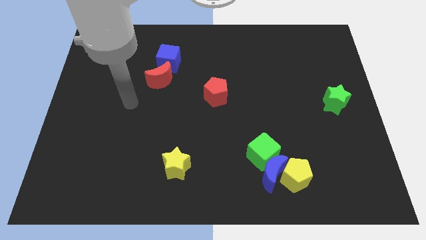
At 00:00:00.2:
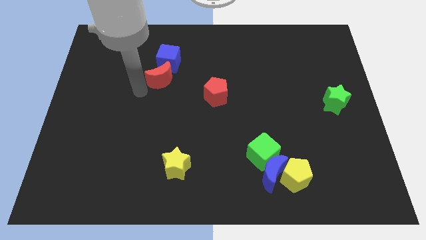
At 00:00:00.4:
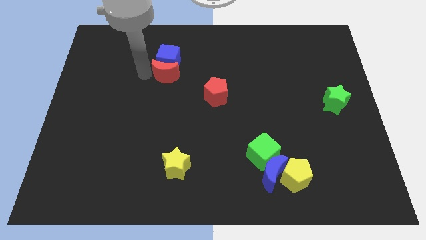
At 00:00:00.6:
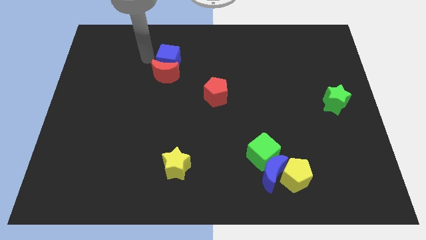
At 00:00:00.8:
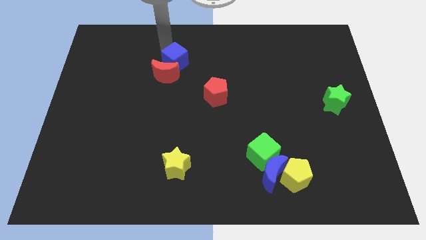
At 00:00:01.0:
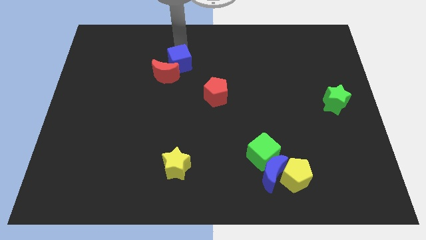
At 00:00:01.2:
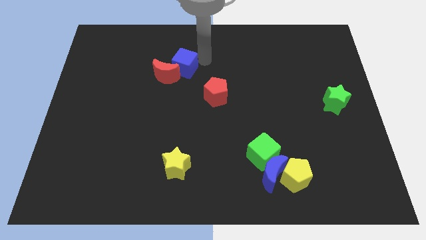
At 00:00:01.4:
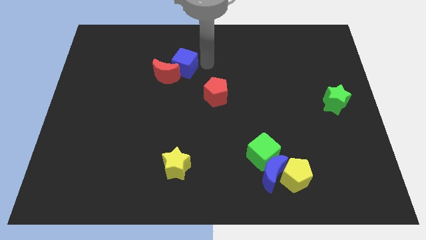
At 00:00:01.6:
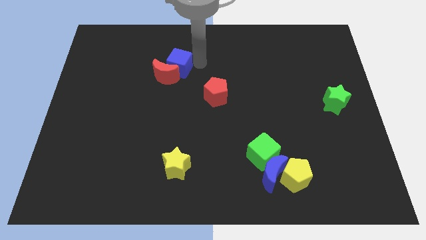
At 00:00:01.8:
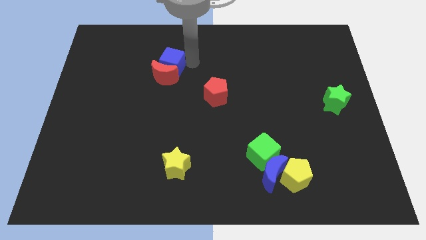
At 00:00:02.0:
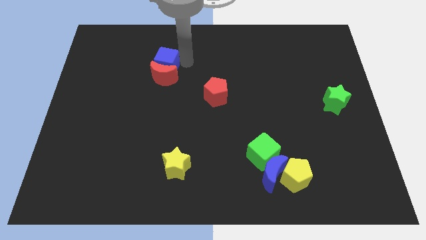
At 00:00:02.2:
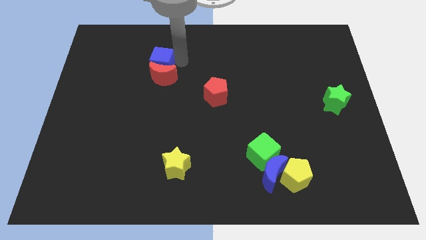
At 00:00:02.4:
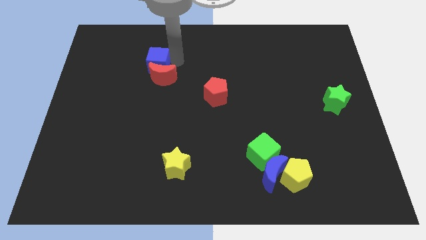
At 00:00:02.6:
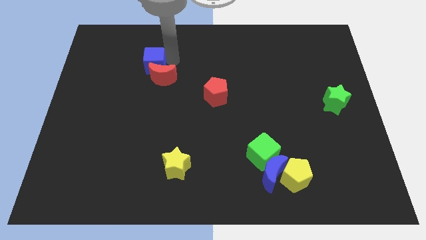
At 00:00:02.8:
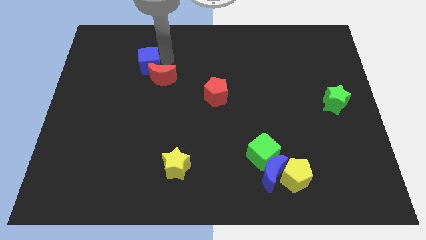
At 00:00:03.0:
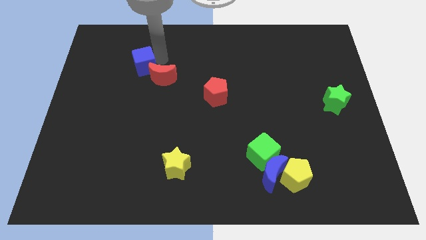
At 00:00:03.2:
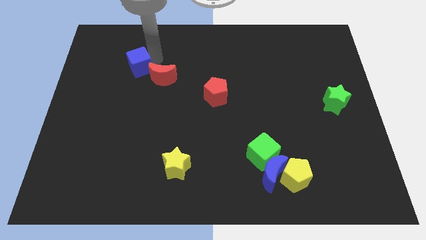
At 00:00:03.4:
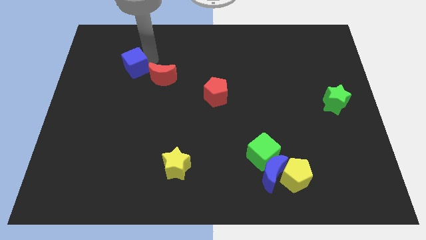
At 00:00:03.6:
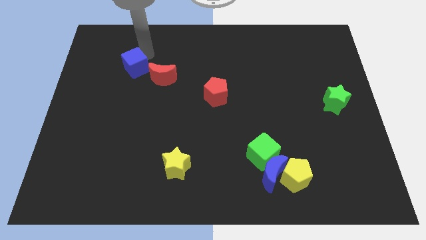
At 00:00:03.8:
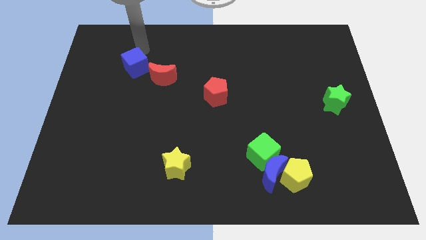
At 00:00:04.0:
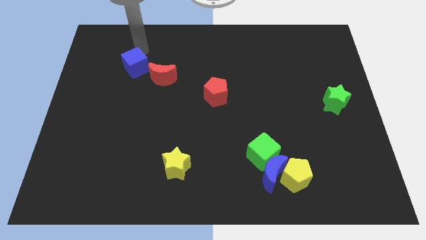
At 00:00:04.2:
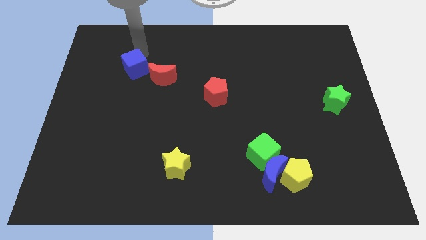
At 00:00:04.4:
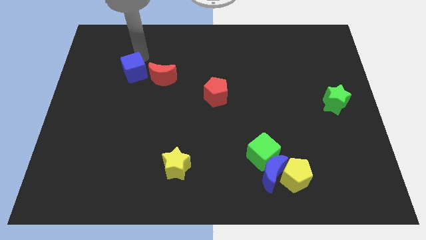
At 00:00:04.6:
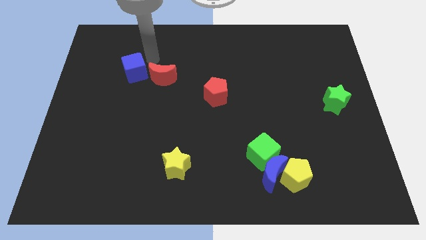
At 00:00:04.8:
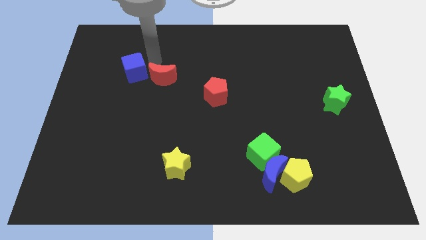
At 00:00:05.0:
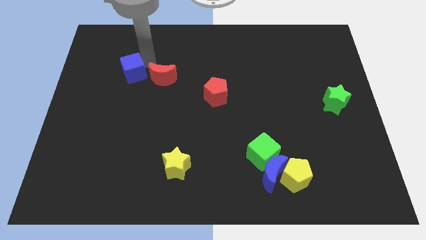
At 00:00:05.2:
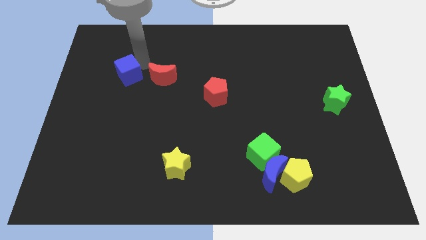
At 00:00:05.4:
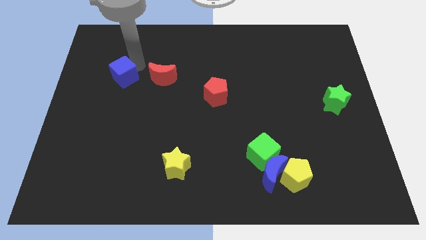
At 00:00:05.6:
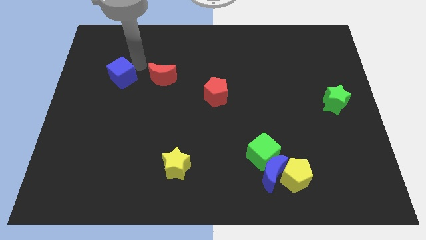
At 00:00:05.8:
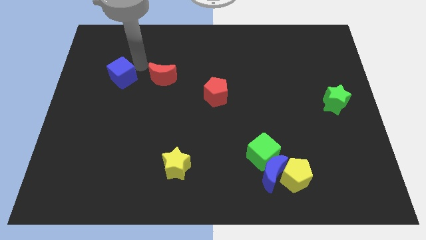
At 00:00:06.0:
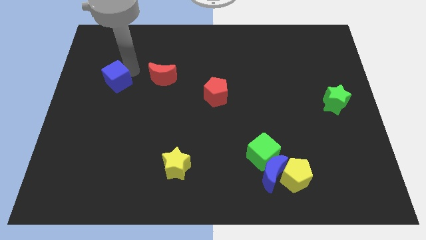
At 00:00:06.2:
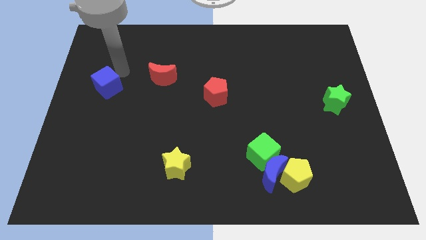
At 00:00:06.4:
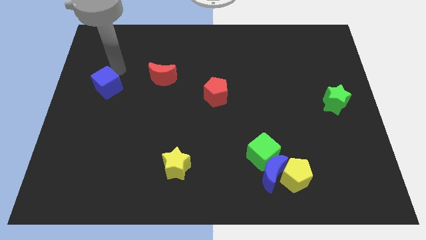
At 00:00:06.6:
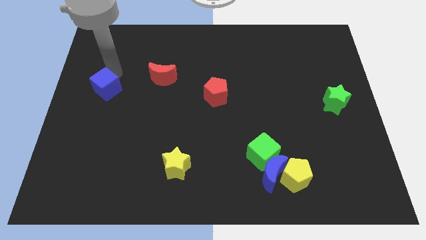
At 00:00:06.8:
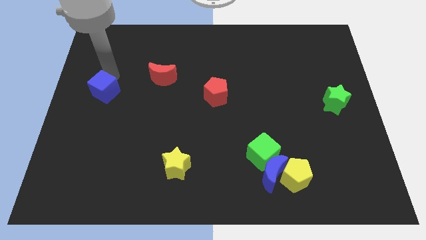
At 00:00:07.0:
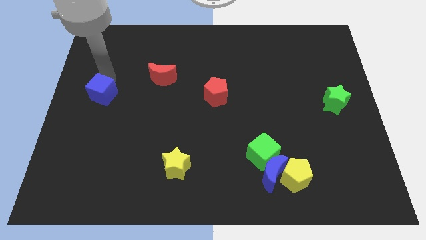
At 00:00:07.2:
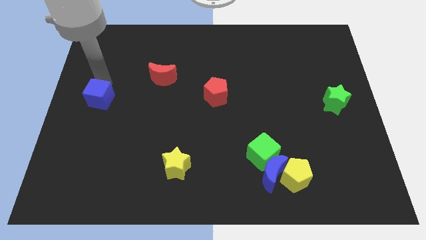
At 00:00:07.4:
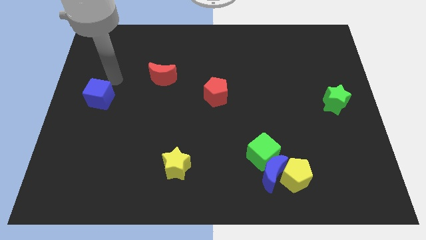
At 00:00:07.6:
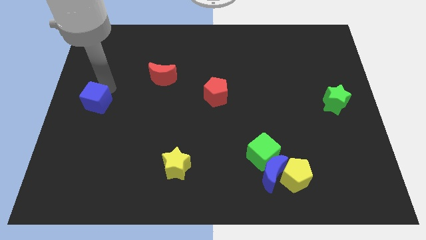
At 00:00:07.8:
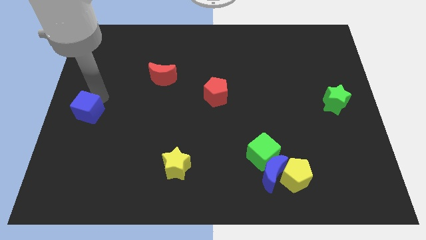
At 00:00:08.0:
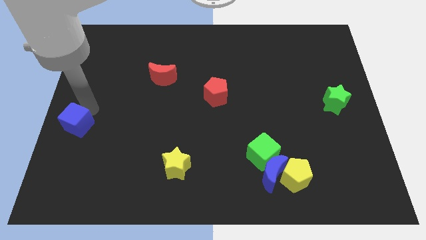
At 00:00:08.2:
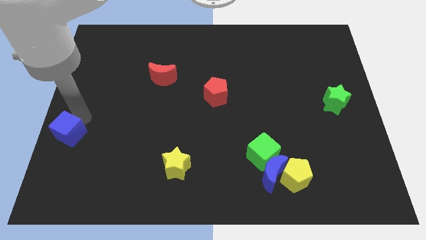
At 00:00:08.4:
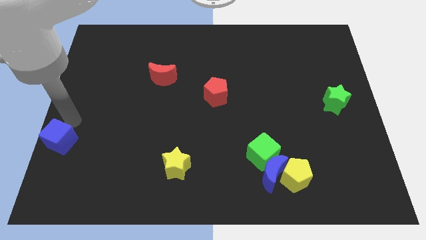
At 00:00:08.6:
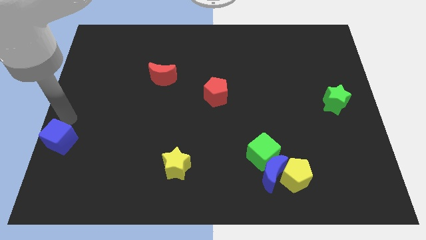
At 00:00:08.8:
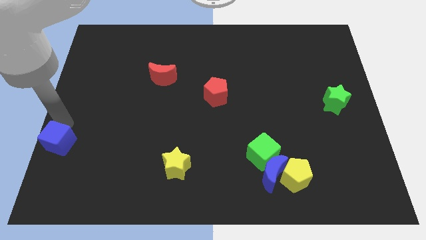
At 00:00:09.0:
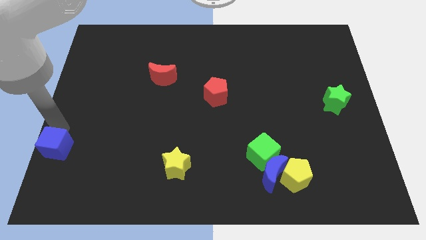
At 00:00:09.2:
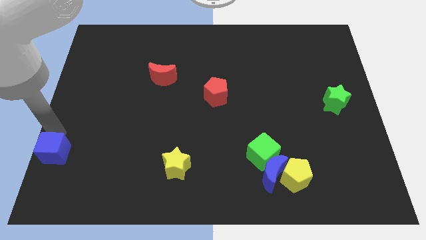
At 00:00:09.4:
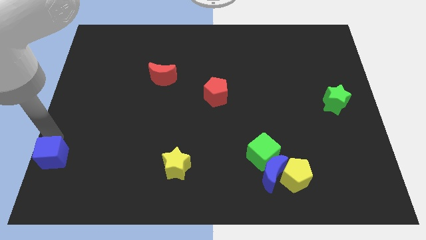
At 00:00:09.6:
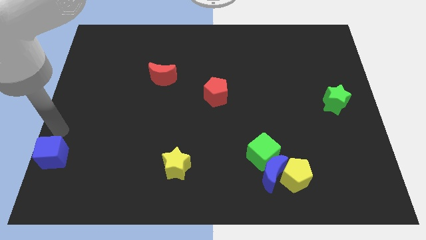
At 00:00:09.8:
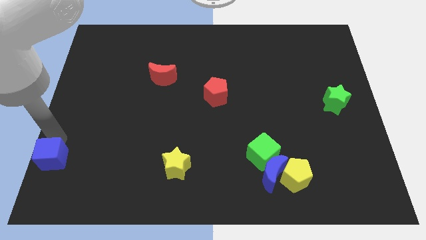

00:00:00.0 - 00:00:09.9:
slide the blue cube to the bottom left of the board

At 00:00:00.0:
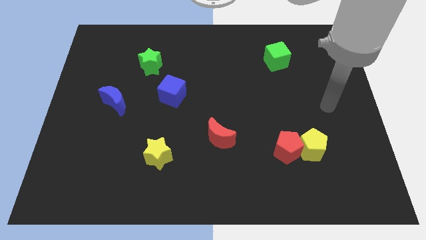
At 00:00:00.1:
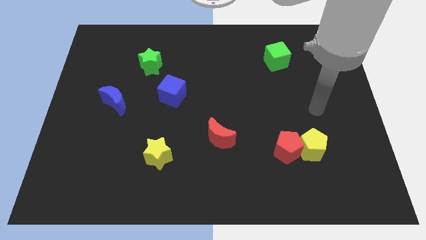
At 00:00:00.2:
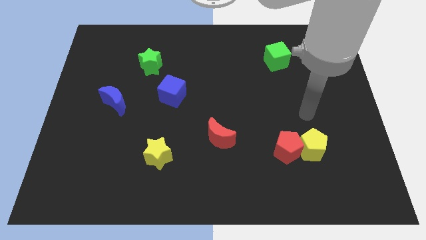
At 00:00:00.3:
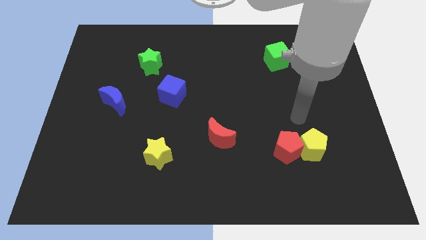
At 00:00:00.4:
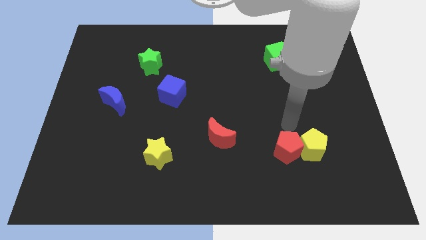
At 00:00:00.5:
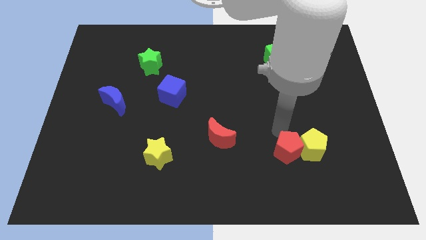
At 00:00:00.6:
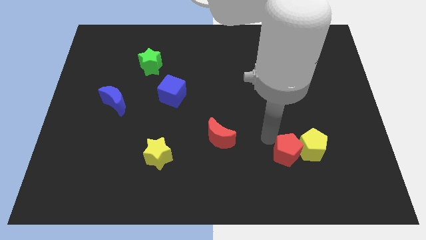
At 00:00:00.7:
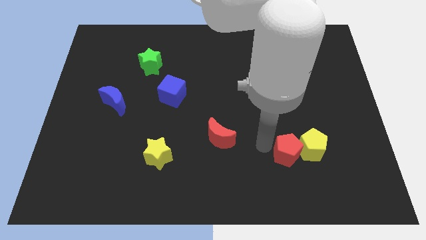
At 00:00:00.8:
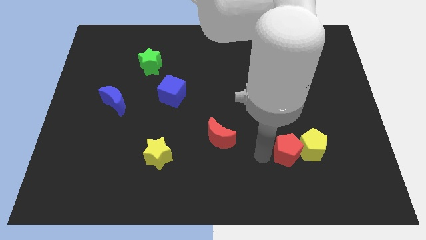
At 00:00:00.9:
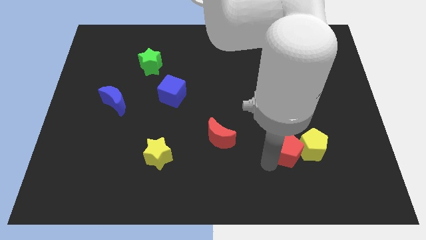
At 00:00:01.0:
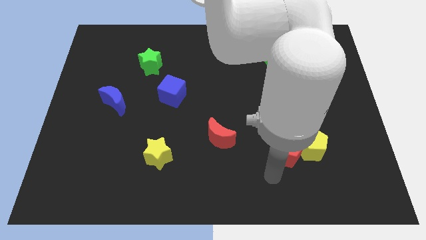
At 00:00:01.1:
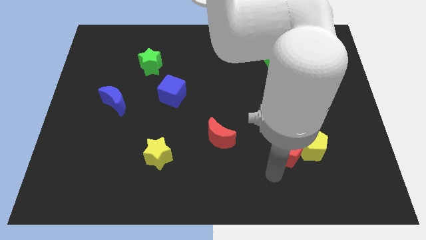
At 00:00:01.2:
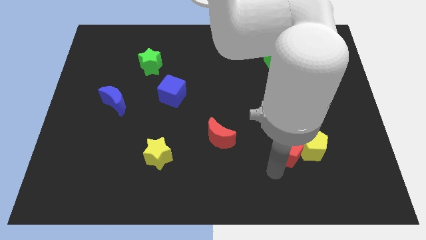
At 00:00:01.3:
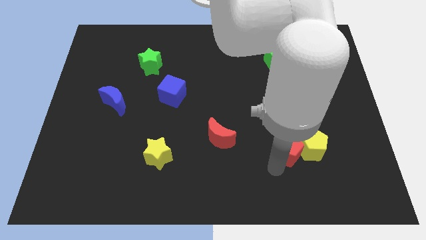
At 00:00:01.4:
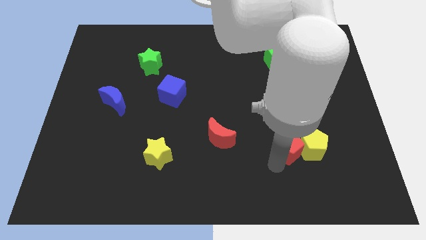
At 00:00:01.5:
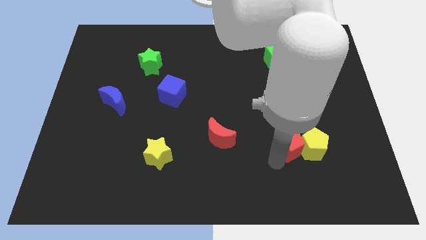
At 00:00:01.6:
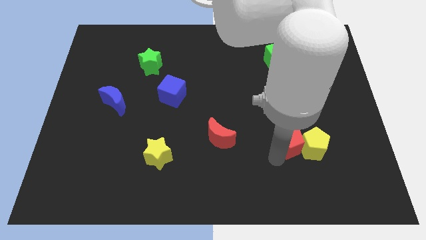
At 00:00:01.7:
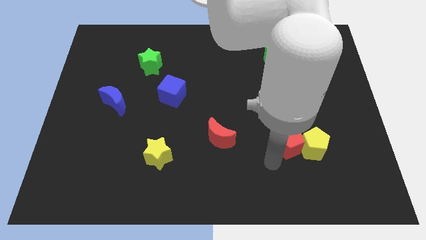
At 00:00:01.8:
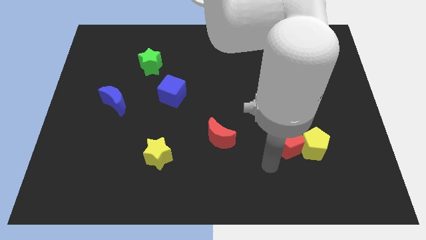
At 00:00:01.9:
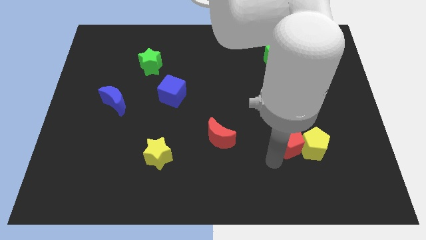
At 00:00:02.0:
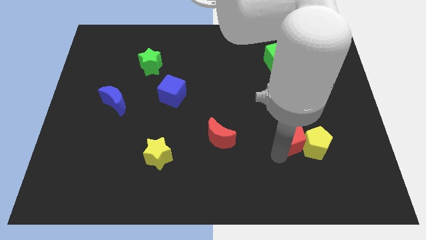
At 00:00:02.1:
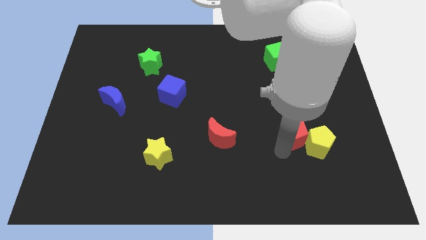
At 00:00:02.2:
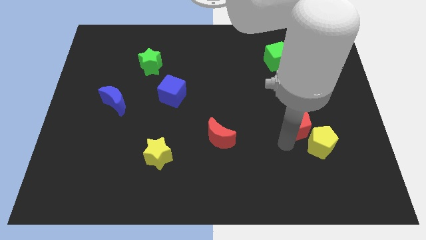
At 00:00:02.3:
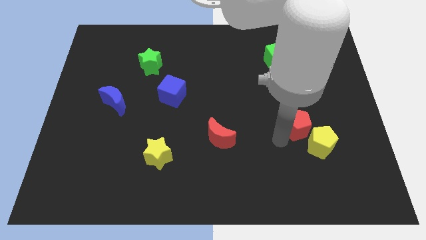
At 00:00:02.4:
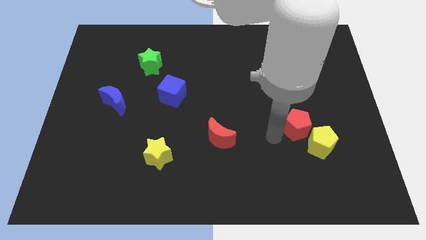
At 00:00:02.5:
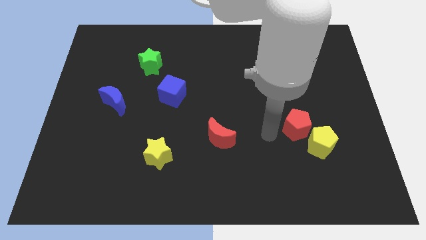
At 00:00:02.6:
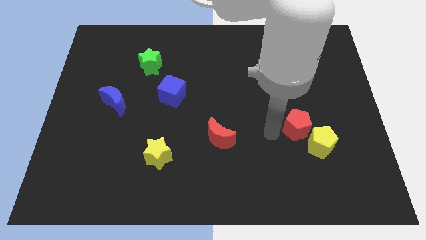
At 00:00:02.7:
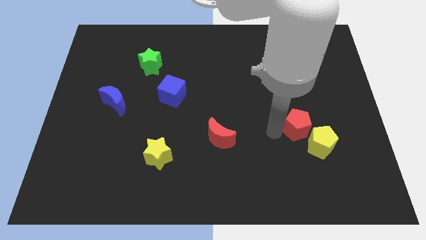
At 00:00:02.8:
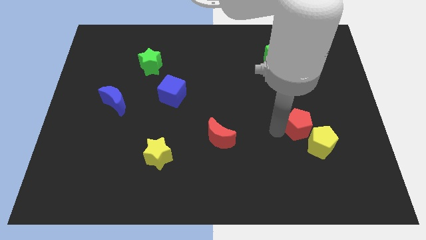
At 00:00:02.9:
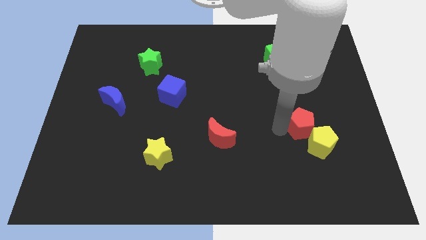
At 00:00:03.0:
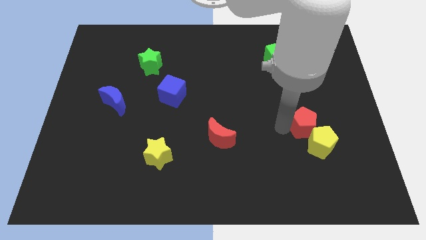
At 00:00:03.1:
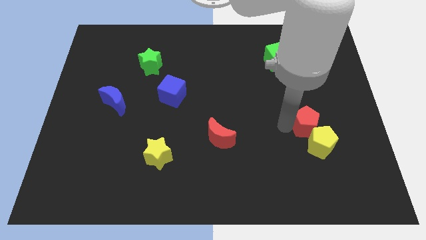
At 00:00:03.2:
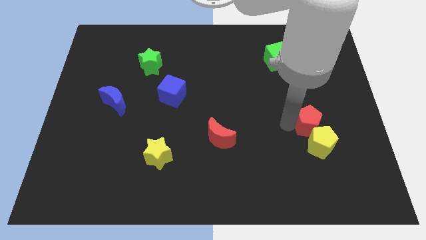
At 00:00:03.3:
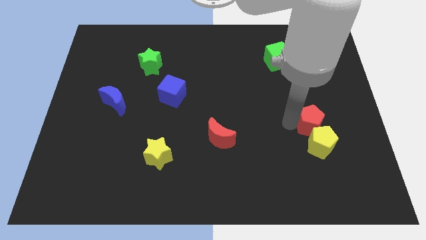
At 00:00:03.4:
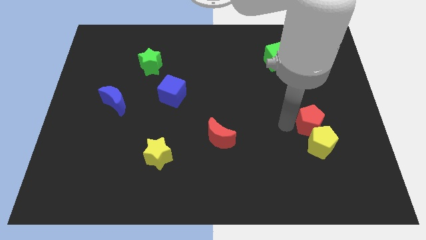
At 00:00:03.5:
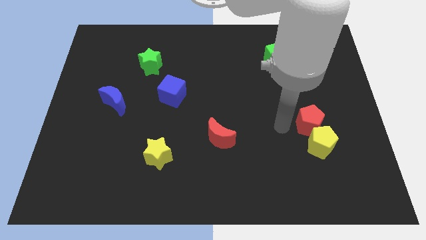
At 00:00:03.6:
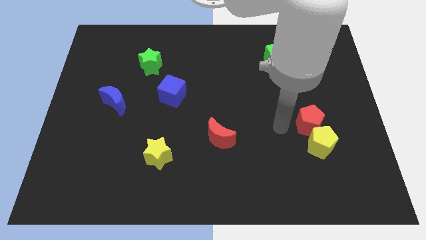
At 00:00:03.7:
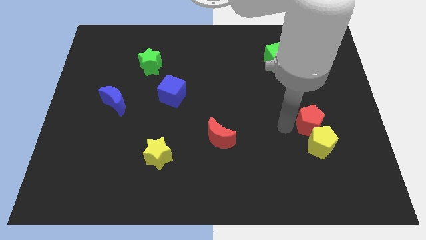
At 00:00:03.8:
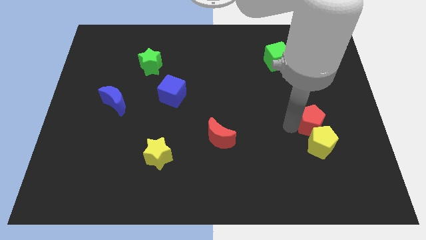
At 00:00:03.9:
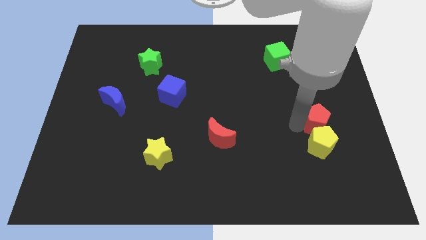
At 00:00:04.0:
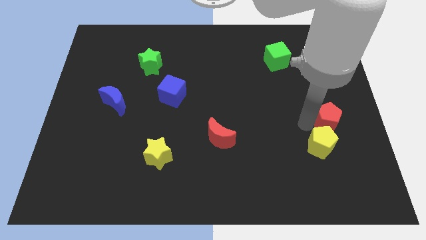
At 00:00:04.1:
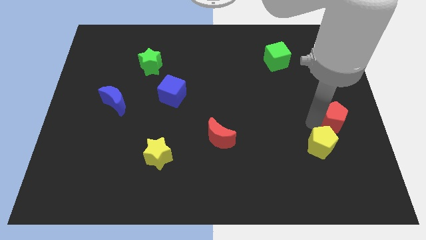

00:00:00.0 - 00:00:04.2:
push the red pentagon to the right side of the board
